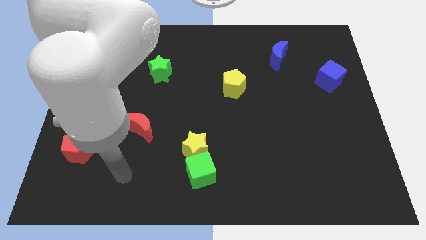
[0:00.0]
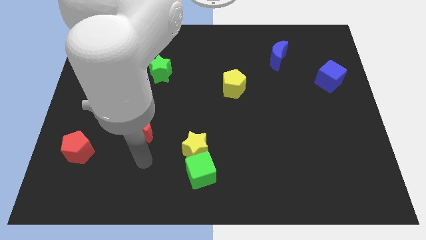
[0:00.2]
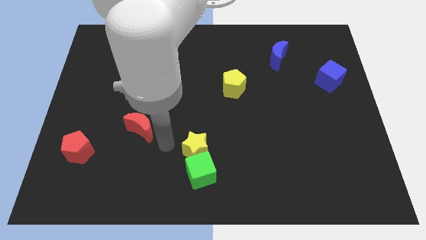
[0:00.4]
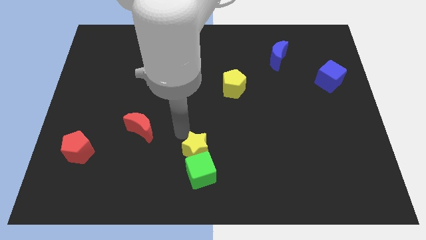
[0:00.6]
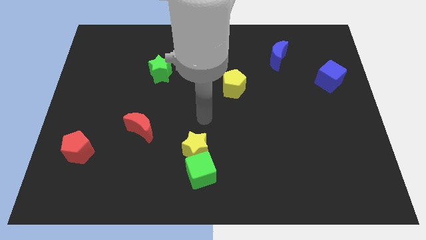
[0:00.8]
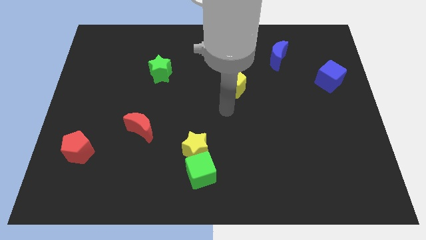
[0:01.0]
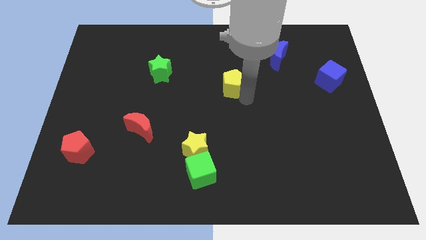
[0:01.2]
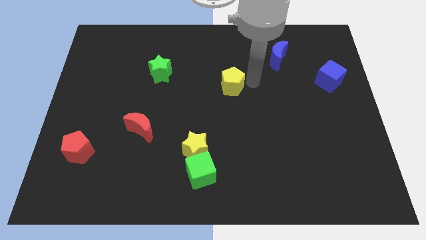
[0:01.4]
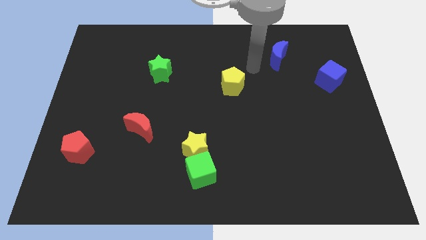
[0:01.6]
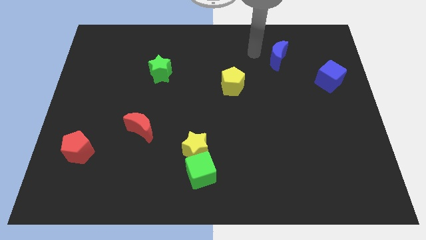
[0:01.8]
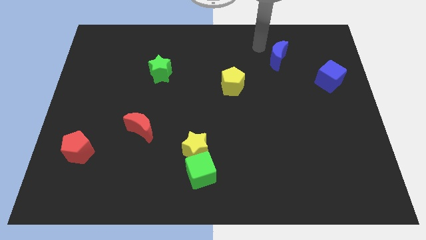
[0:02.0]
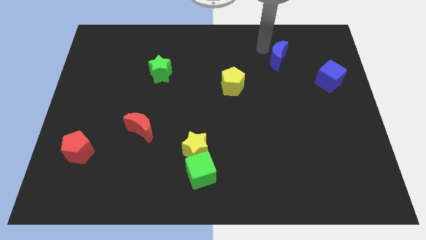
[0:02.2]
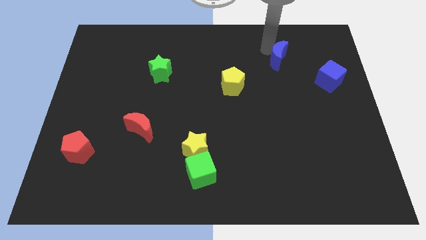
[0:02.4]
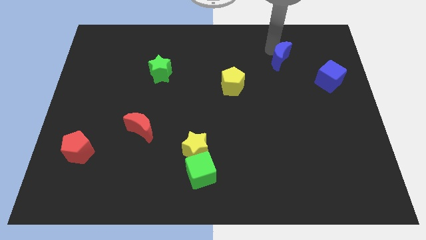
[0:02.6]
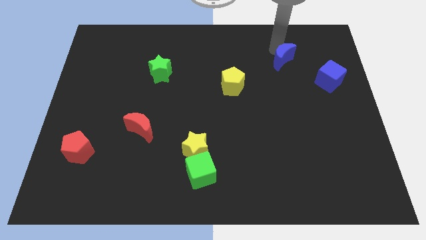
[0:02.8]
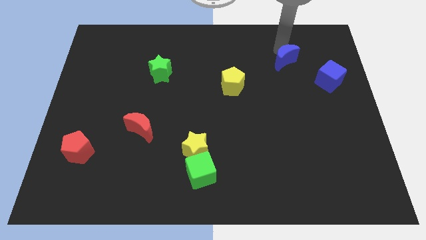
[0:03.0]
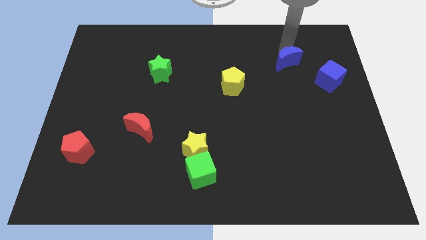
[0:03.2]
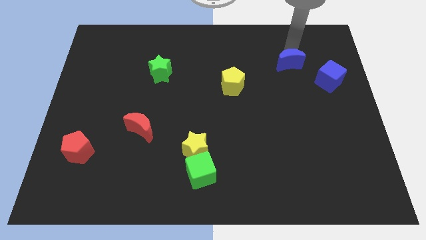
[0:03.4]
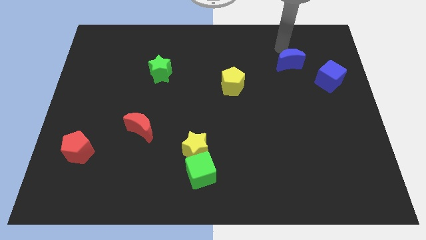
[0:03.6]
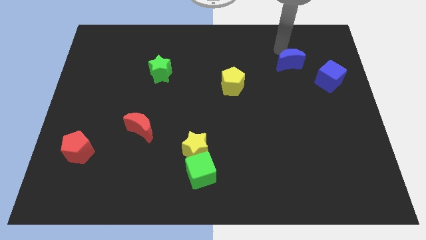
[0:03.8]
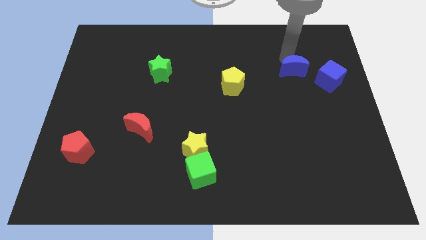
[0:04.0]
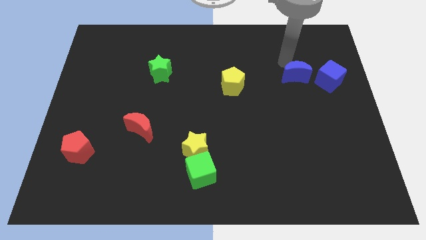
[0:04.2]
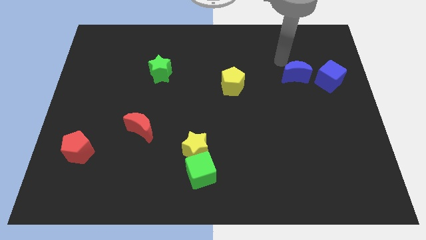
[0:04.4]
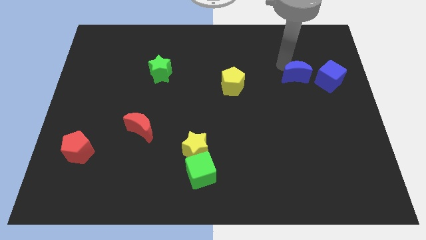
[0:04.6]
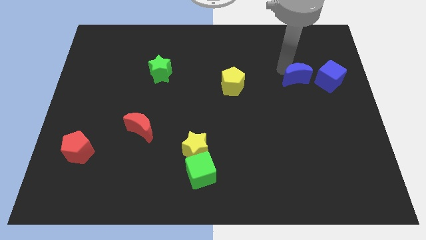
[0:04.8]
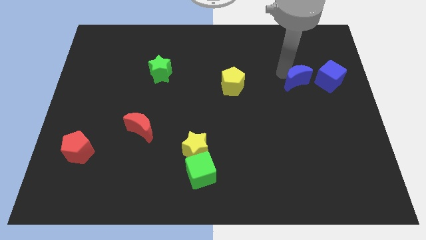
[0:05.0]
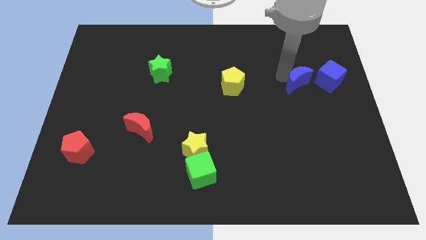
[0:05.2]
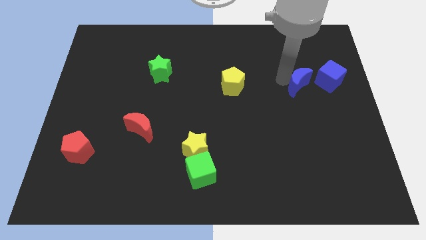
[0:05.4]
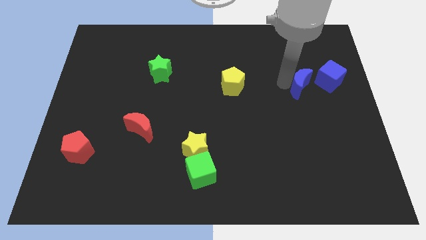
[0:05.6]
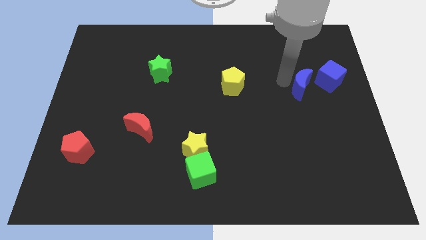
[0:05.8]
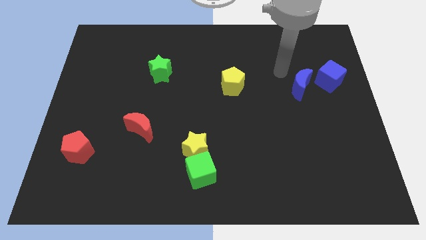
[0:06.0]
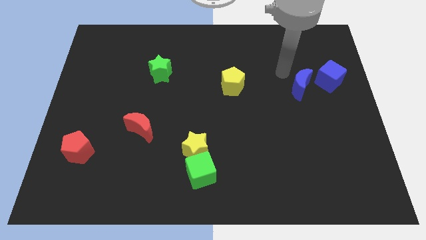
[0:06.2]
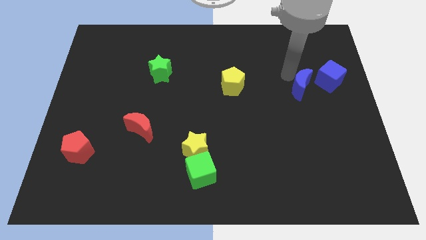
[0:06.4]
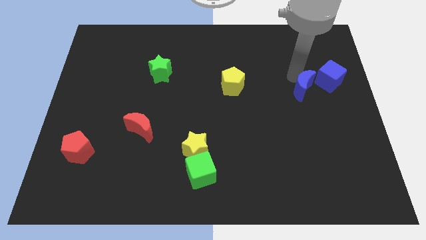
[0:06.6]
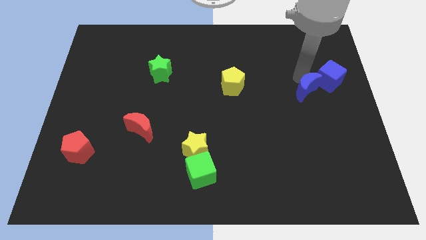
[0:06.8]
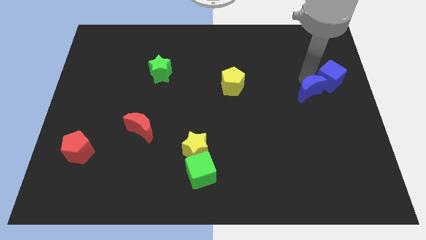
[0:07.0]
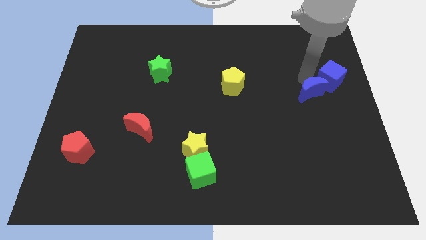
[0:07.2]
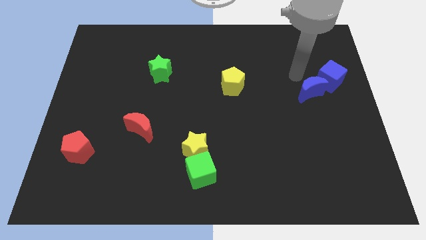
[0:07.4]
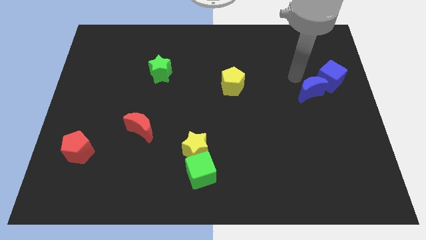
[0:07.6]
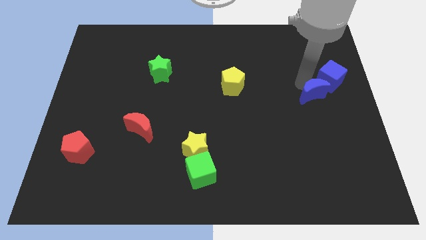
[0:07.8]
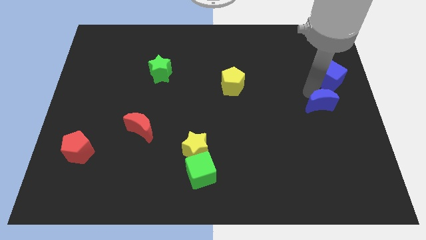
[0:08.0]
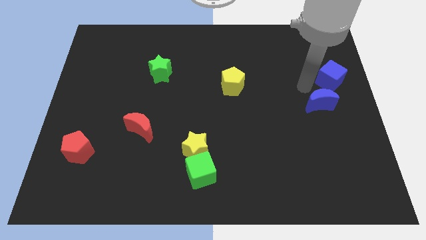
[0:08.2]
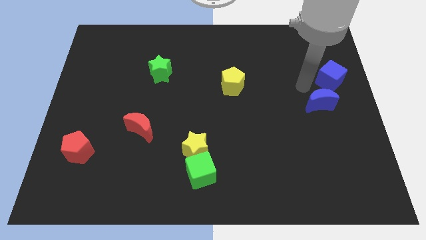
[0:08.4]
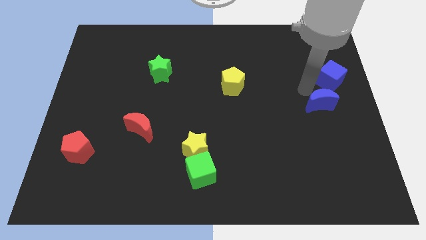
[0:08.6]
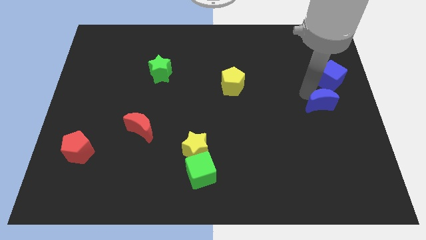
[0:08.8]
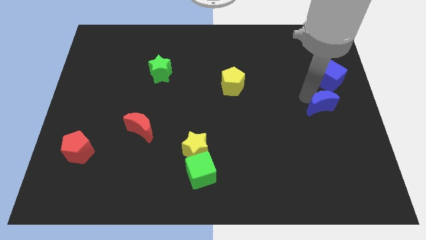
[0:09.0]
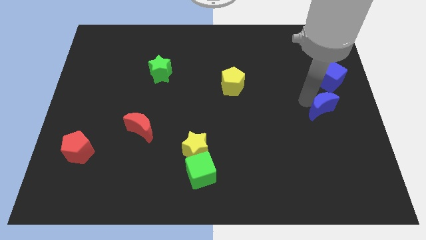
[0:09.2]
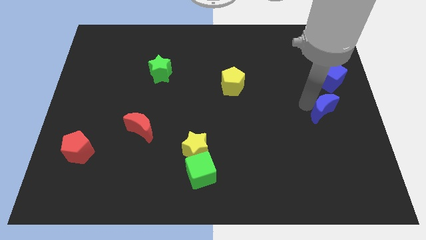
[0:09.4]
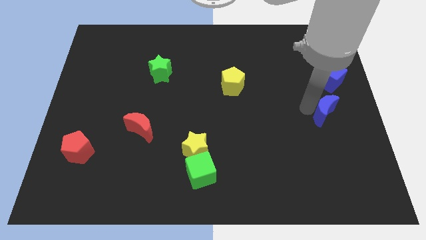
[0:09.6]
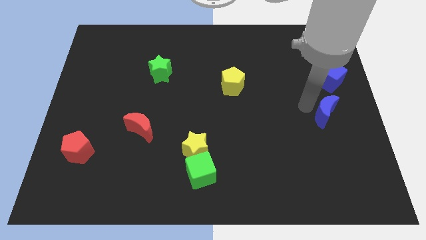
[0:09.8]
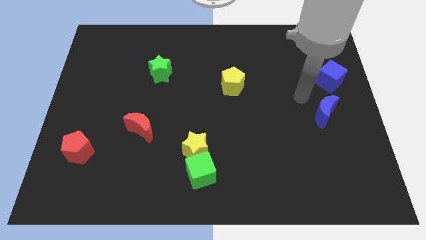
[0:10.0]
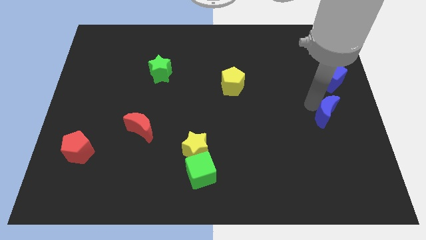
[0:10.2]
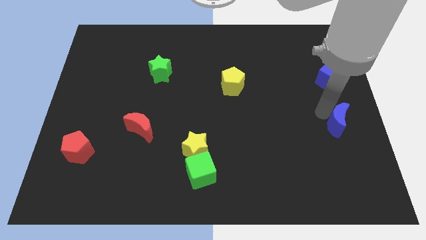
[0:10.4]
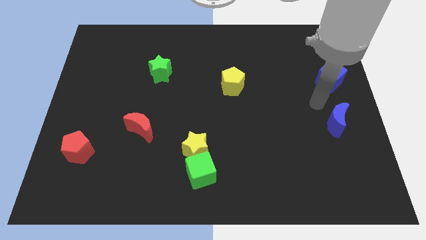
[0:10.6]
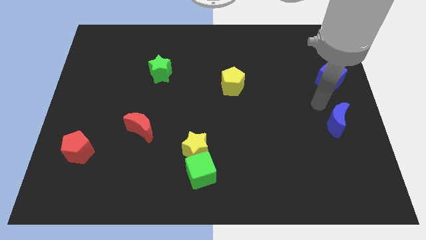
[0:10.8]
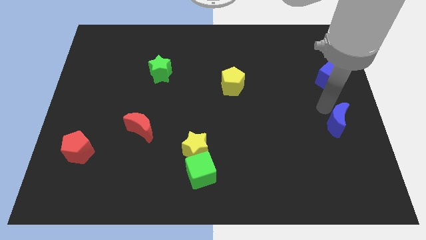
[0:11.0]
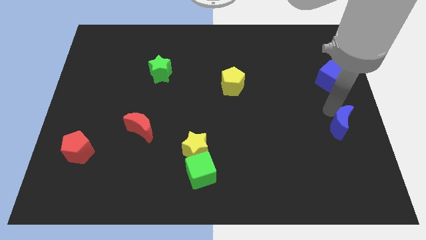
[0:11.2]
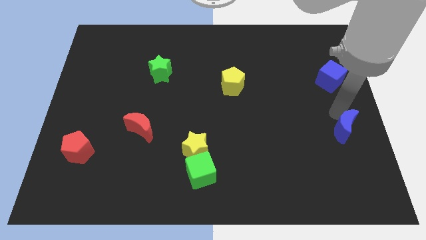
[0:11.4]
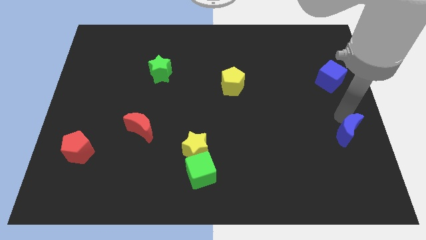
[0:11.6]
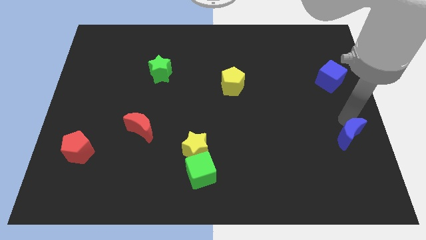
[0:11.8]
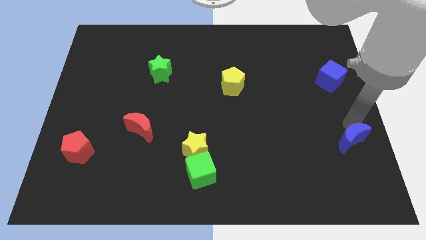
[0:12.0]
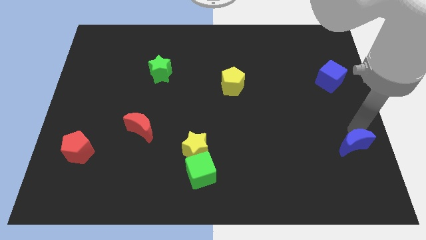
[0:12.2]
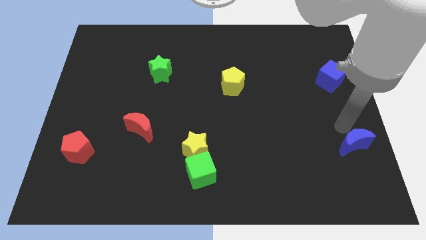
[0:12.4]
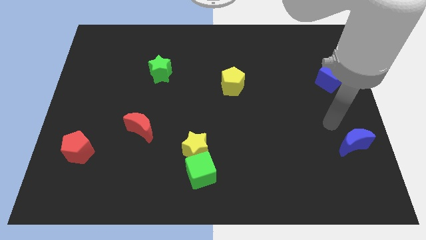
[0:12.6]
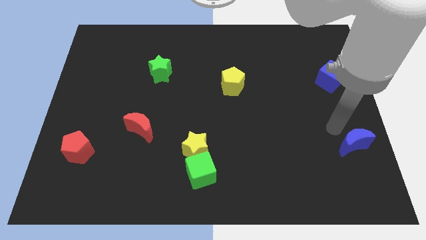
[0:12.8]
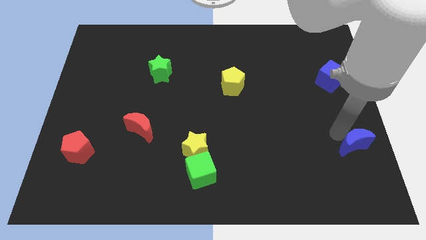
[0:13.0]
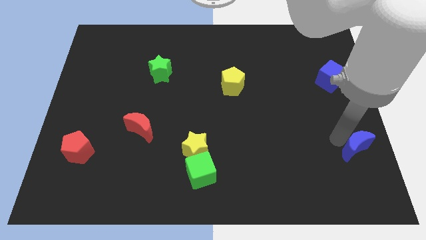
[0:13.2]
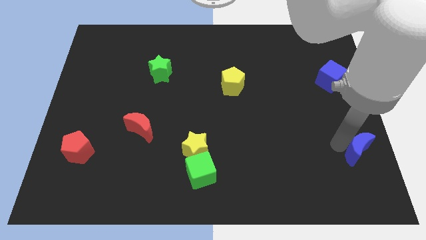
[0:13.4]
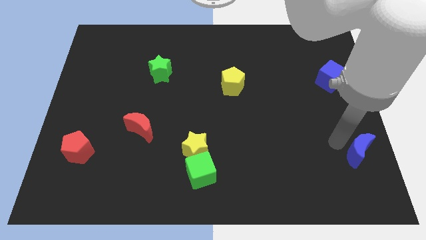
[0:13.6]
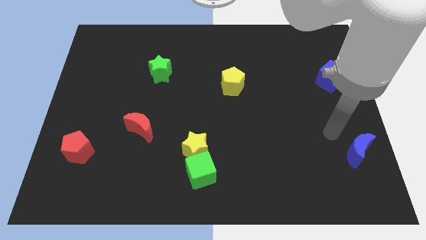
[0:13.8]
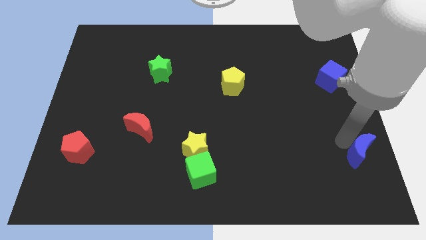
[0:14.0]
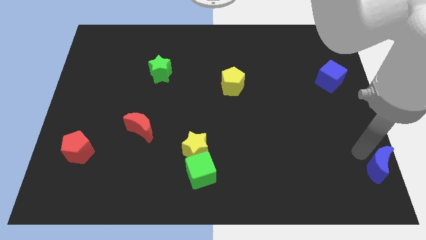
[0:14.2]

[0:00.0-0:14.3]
put the blue moon to the bottom right of the board

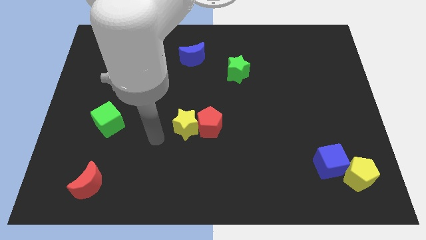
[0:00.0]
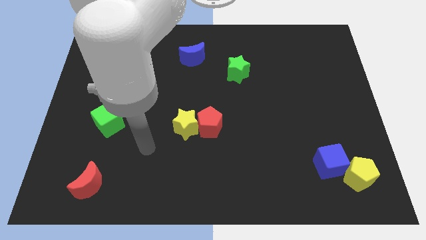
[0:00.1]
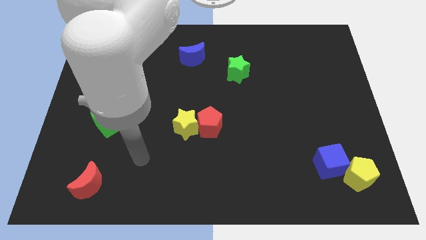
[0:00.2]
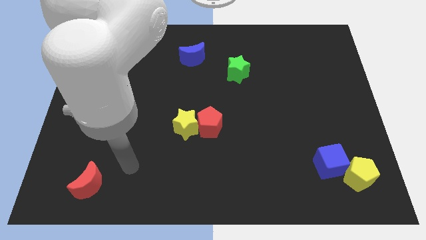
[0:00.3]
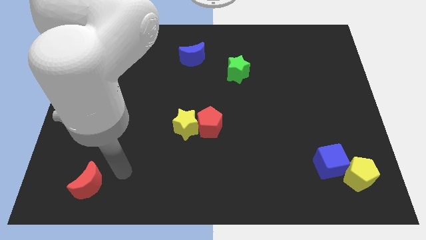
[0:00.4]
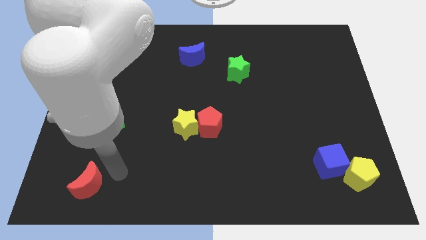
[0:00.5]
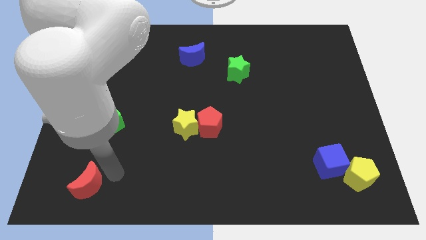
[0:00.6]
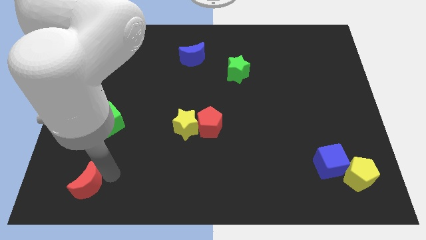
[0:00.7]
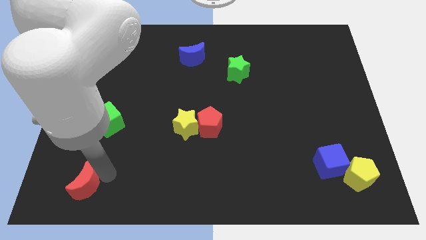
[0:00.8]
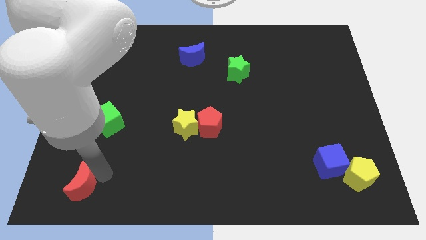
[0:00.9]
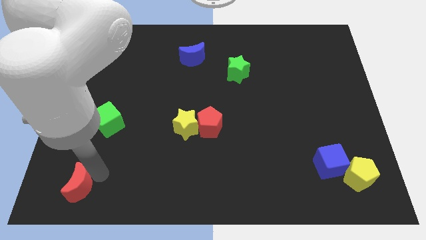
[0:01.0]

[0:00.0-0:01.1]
push the red moon to the bottom left
